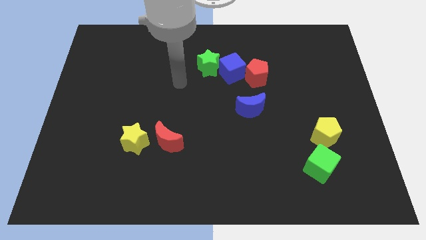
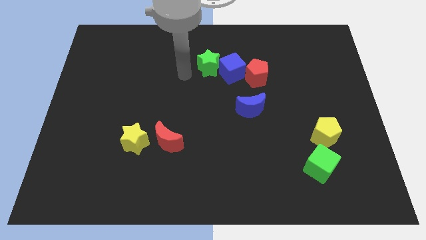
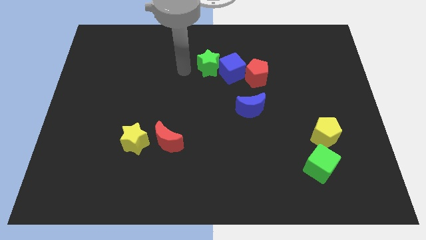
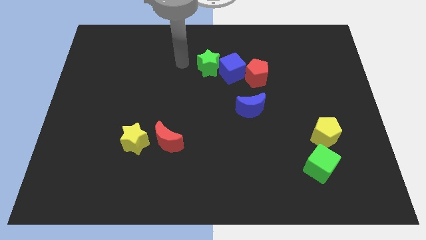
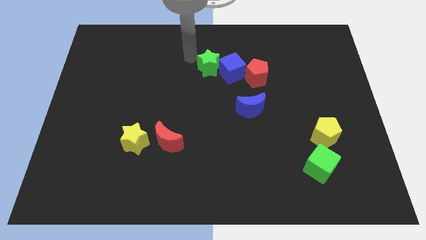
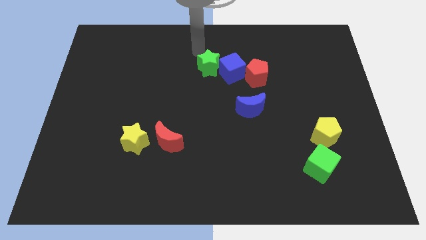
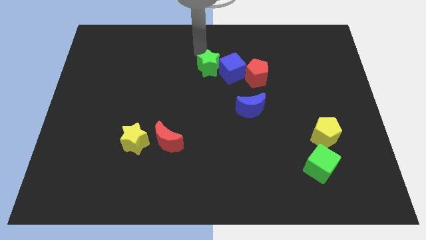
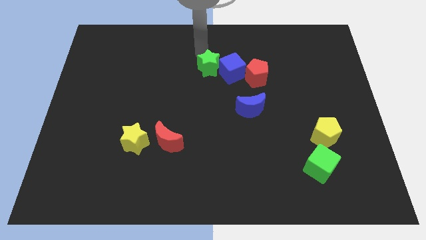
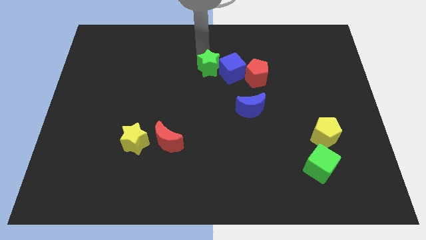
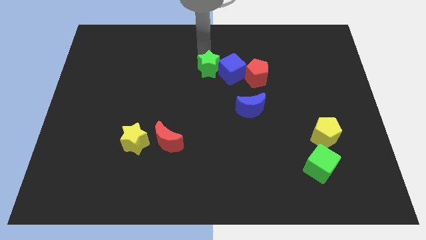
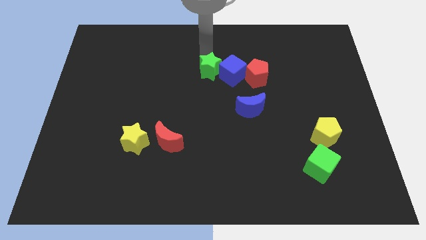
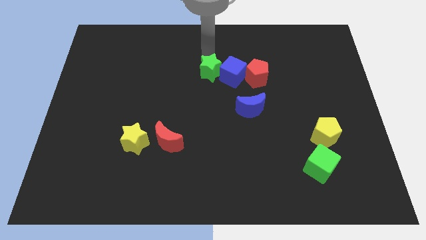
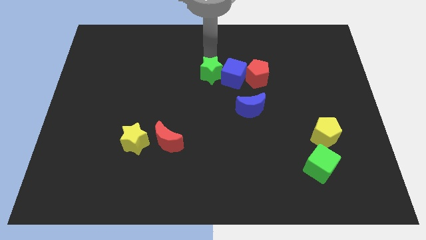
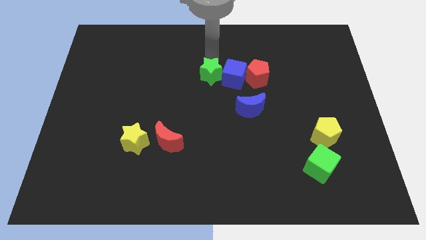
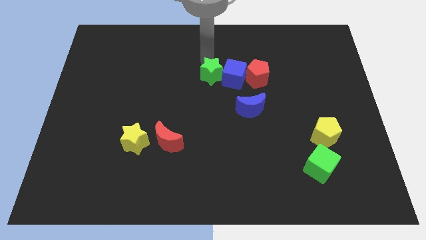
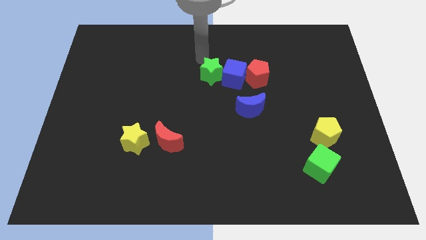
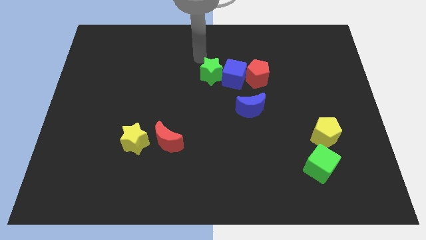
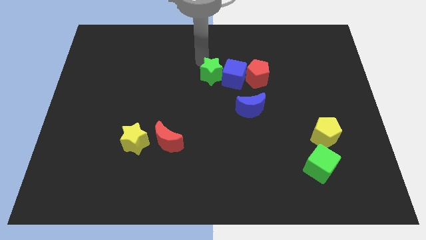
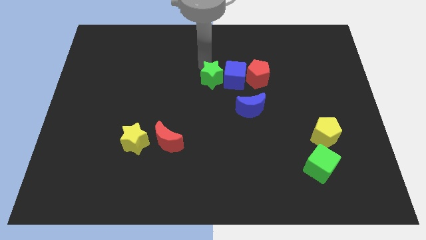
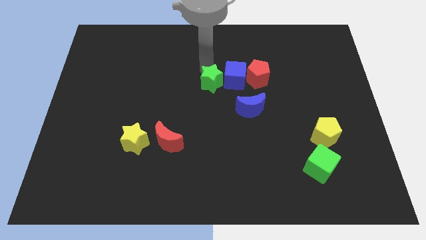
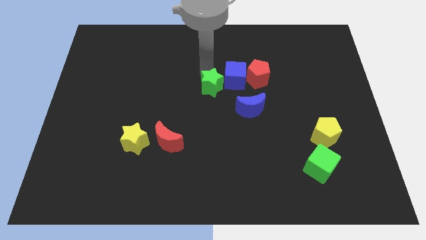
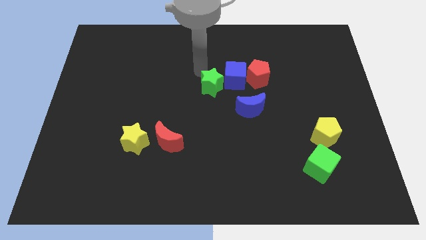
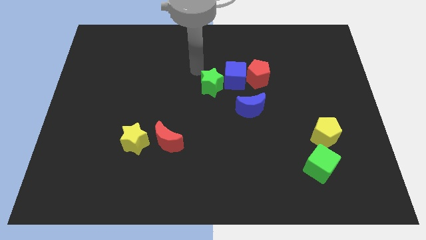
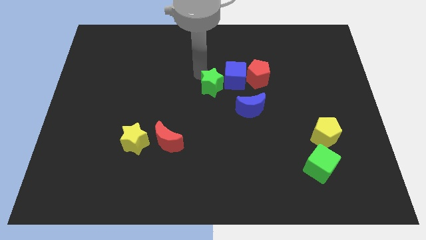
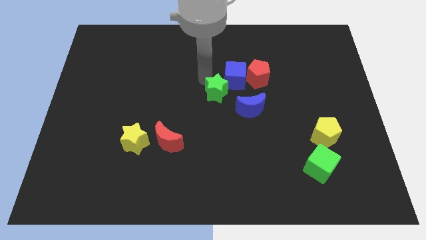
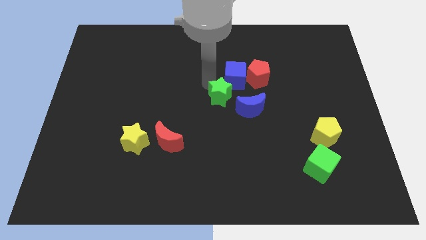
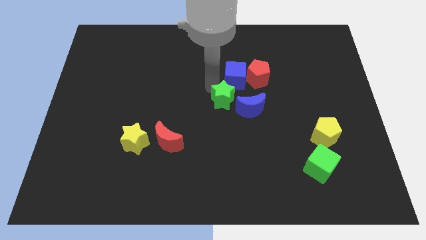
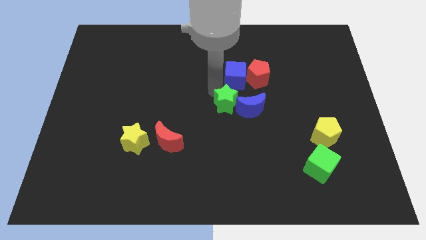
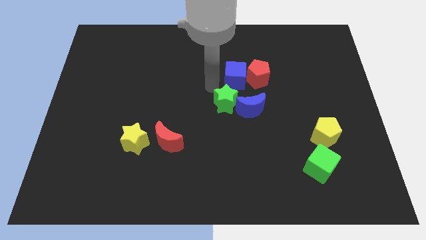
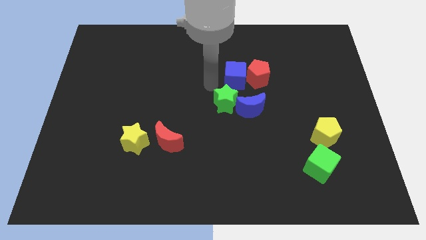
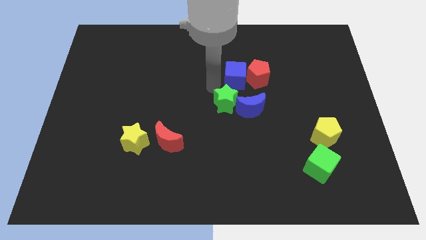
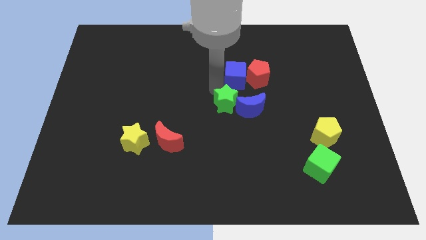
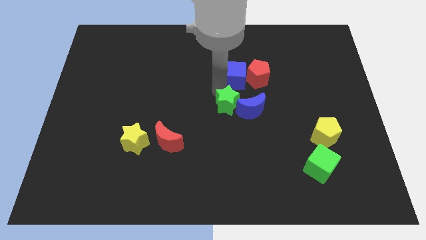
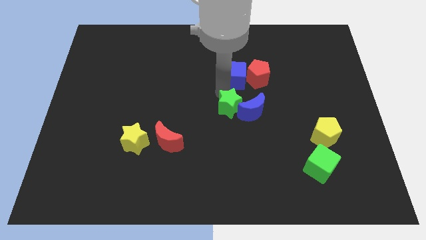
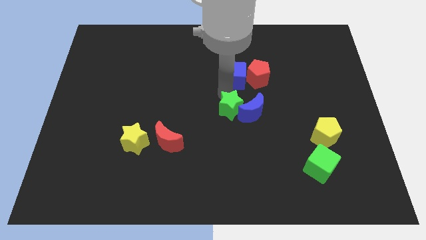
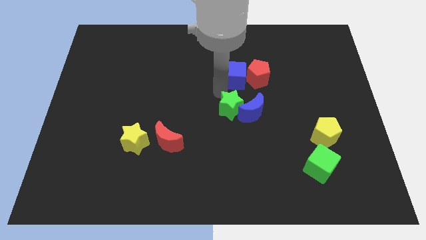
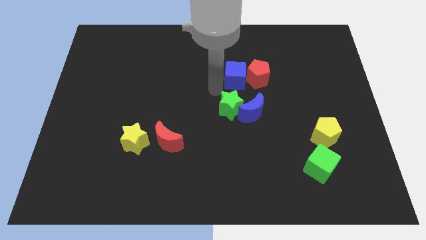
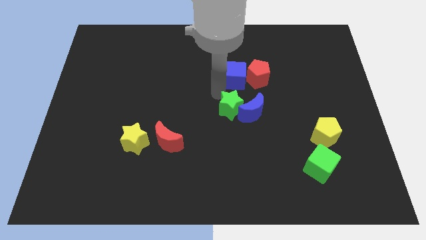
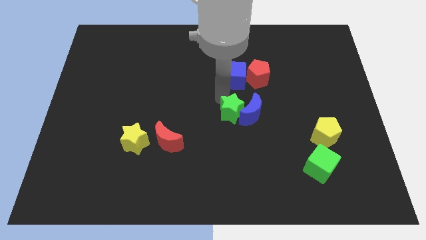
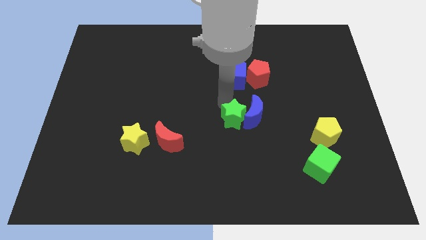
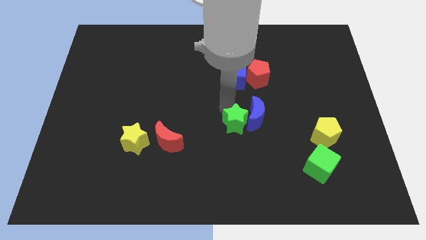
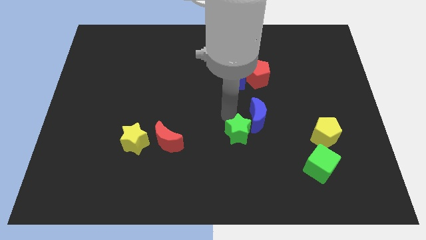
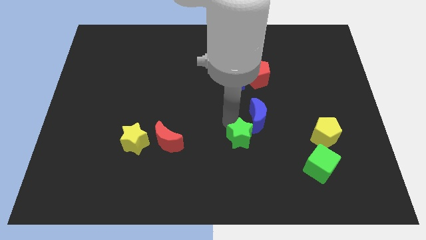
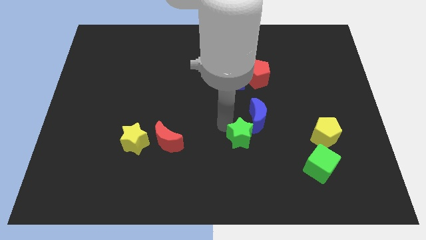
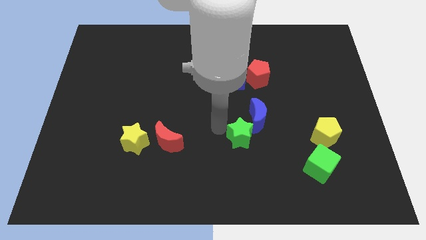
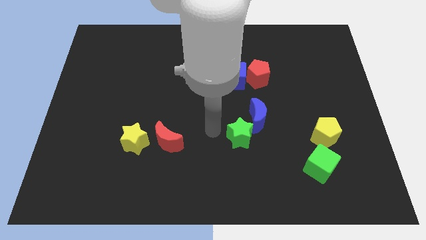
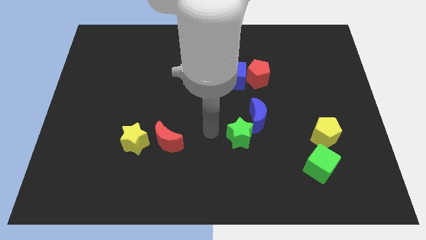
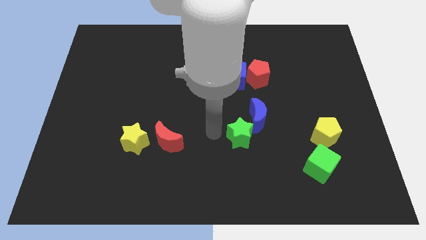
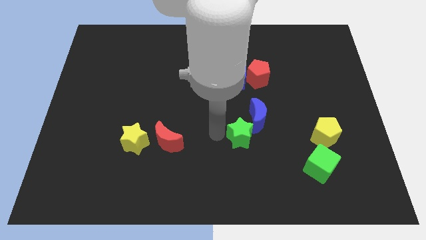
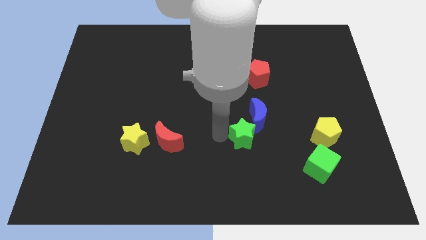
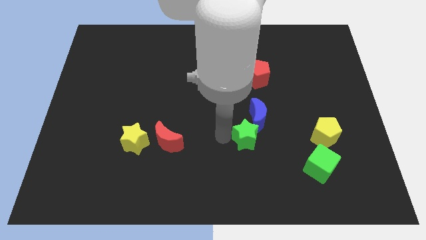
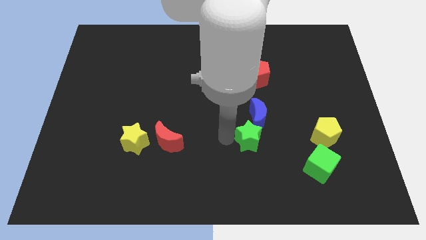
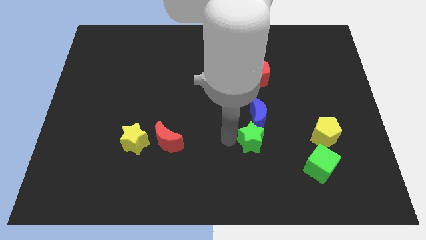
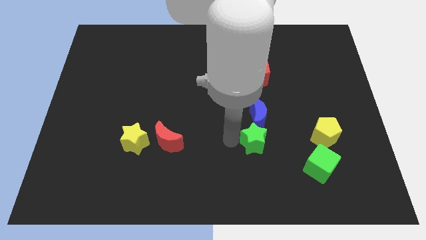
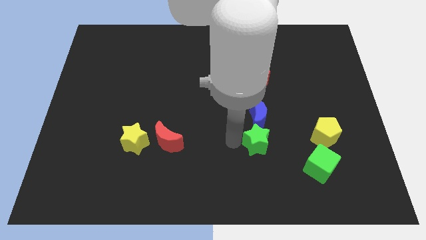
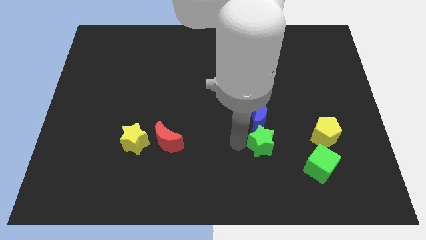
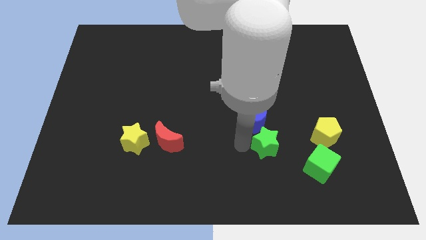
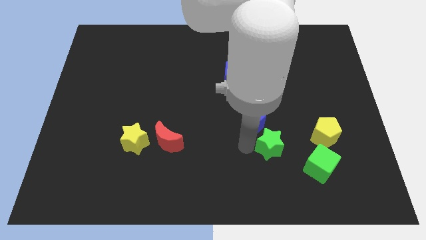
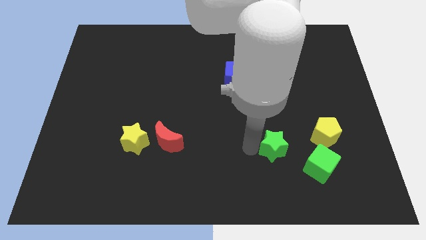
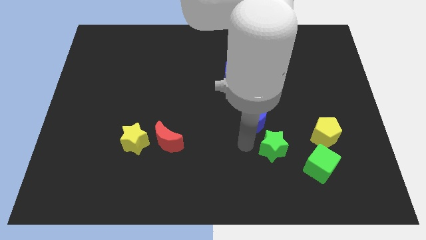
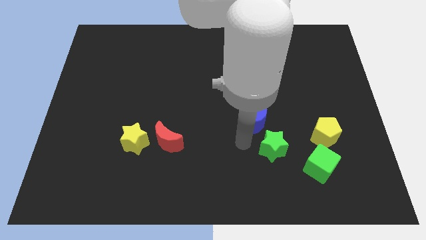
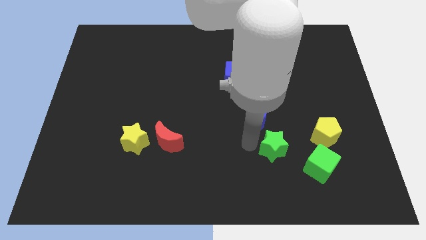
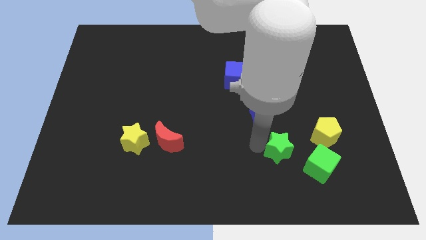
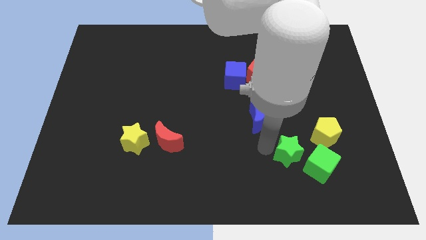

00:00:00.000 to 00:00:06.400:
move the green star to the bottom left of the yellow pentagon
